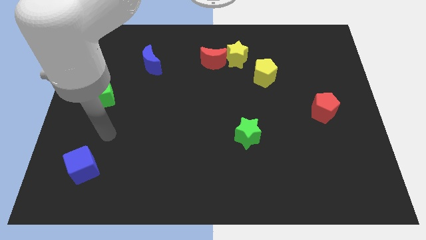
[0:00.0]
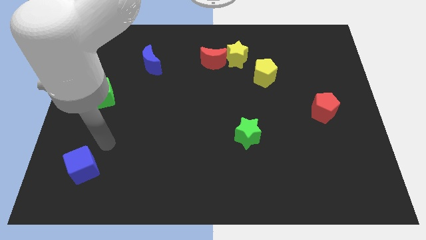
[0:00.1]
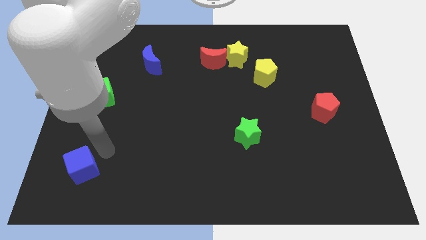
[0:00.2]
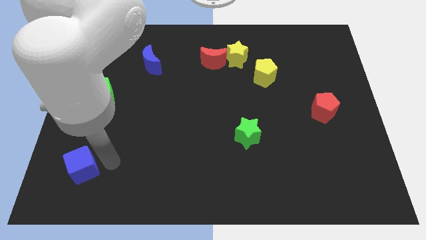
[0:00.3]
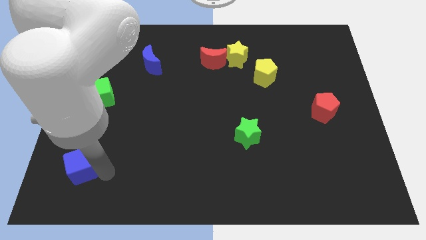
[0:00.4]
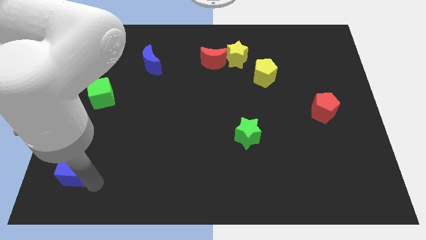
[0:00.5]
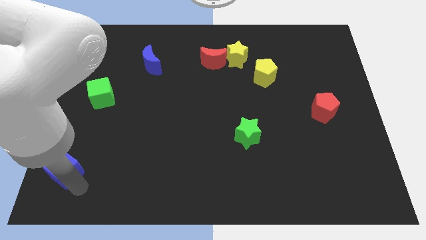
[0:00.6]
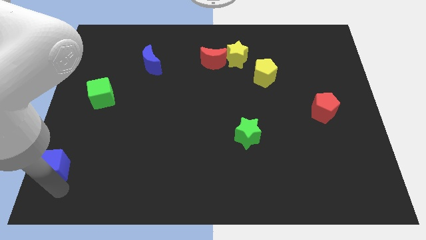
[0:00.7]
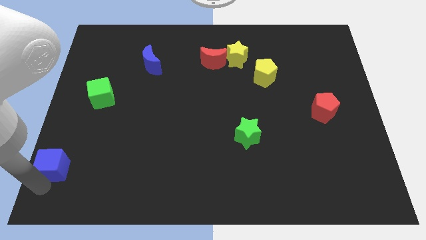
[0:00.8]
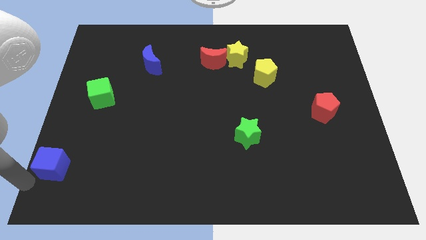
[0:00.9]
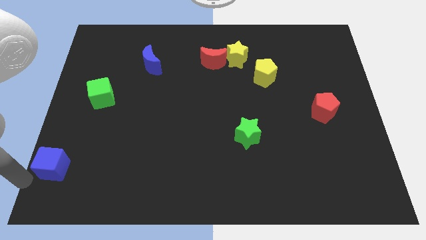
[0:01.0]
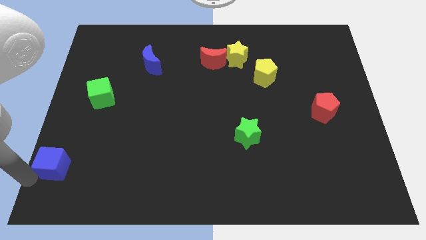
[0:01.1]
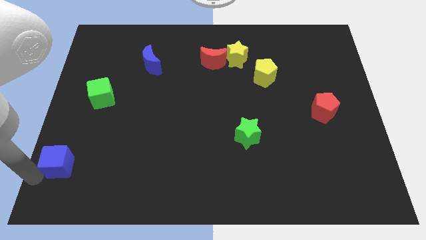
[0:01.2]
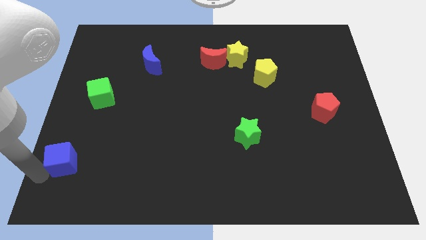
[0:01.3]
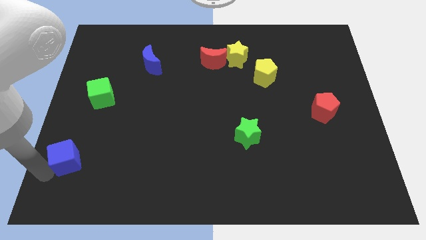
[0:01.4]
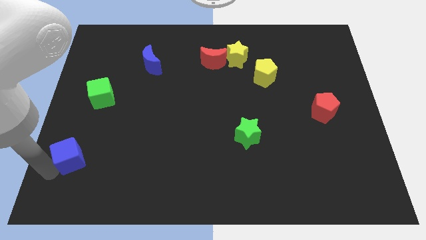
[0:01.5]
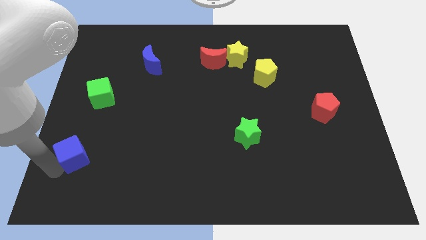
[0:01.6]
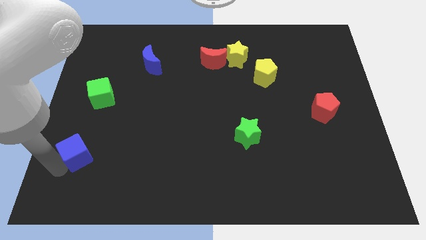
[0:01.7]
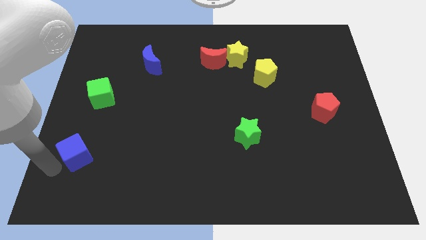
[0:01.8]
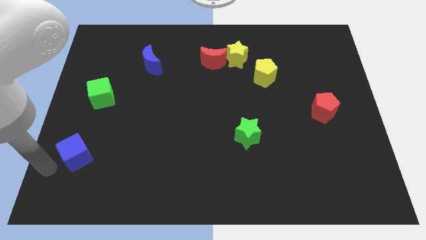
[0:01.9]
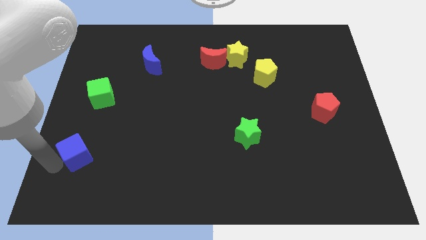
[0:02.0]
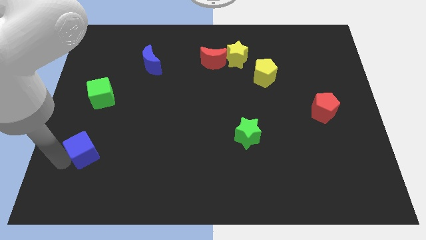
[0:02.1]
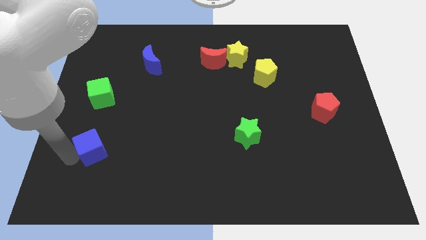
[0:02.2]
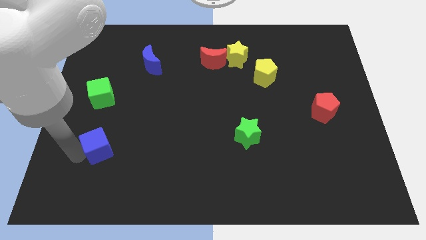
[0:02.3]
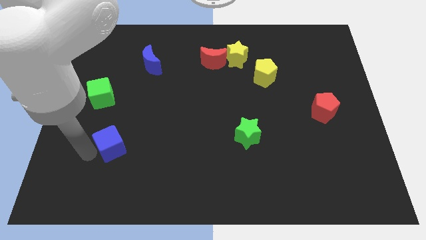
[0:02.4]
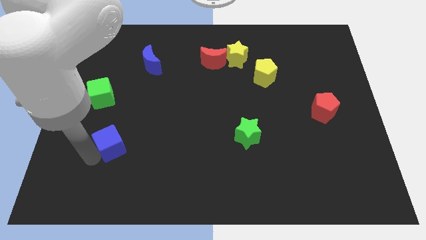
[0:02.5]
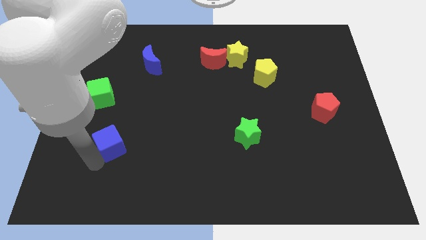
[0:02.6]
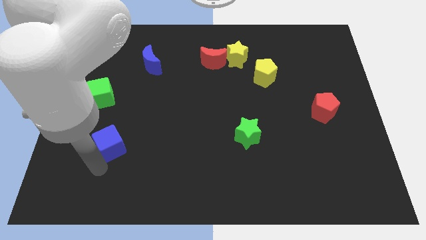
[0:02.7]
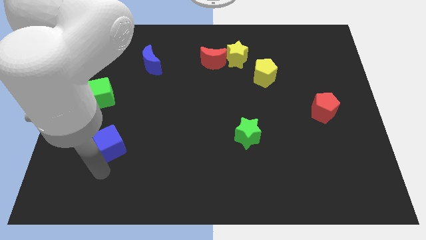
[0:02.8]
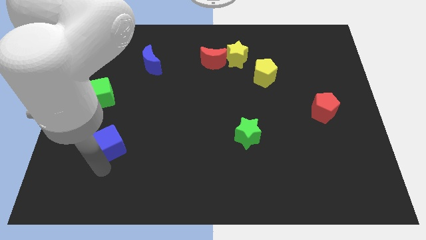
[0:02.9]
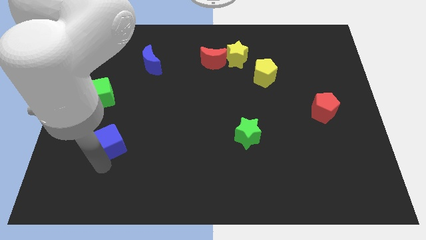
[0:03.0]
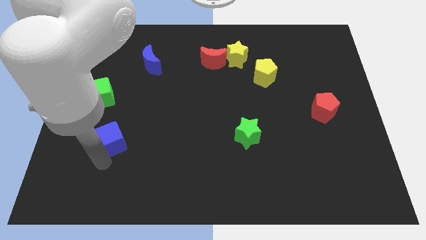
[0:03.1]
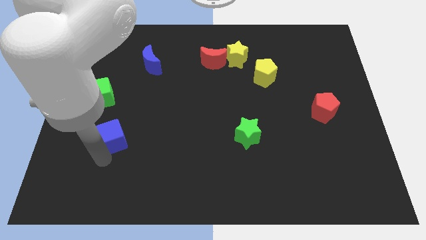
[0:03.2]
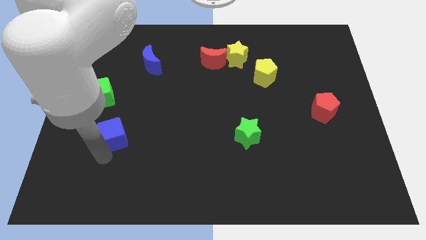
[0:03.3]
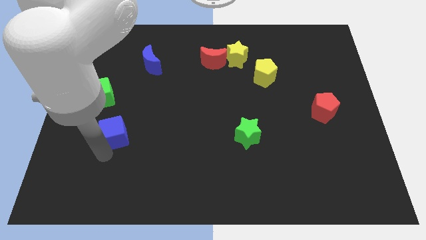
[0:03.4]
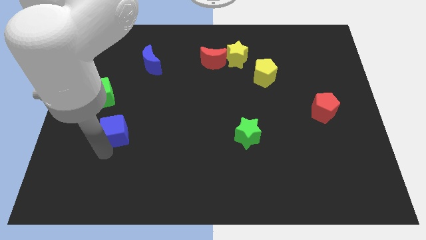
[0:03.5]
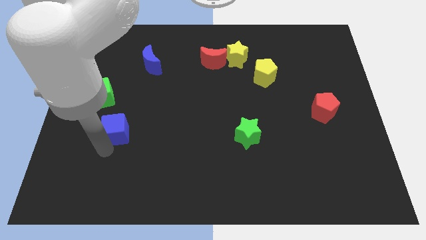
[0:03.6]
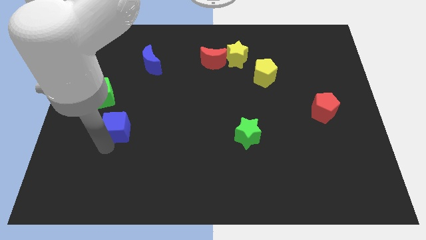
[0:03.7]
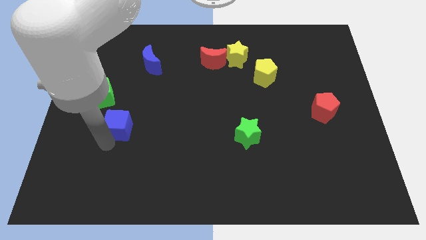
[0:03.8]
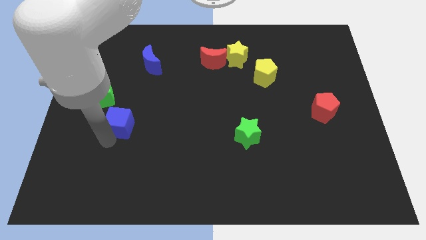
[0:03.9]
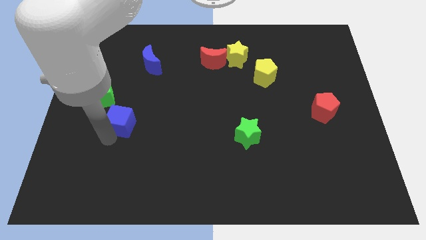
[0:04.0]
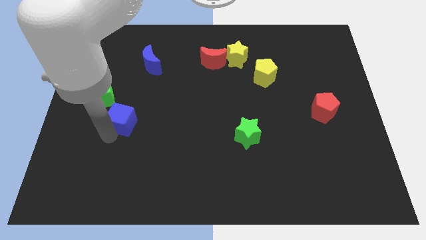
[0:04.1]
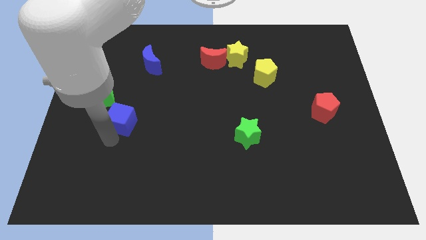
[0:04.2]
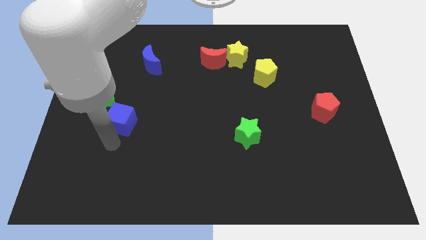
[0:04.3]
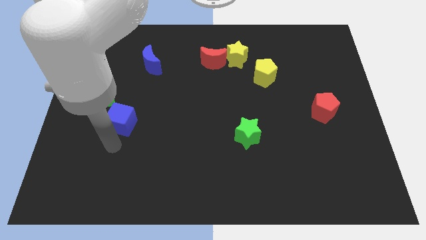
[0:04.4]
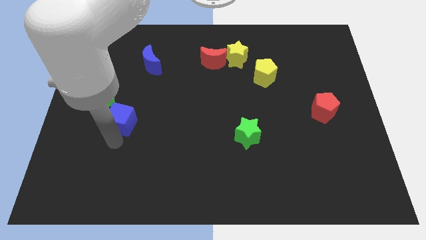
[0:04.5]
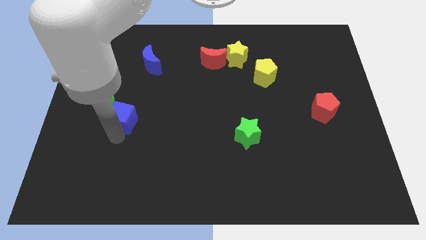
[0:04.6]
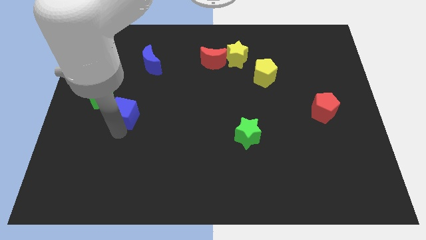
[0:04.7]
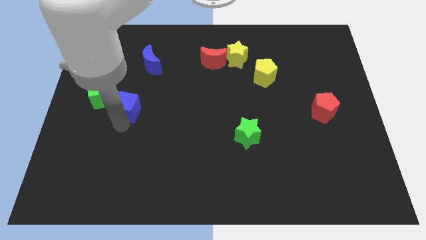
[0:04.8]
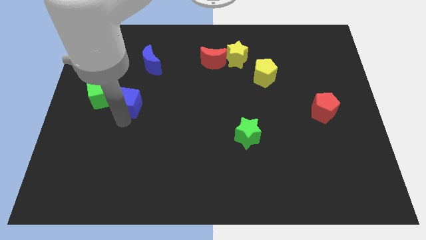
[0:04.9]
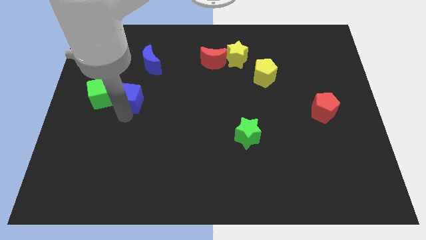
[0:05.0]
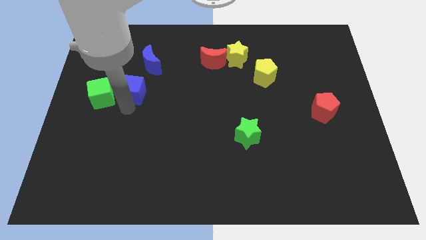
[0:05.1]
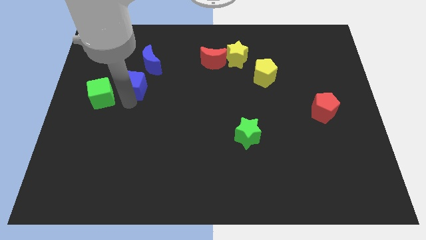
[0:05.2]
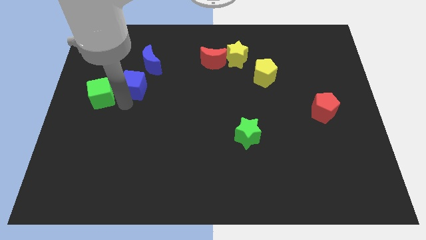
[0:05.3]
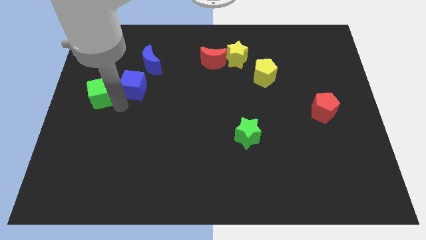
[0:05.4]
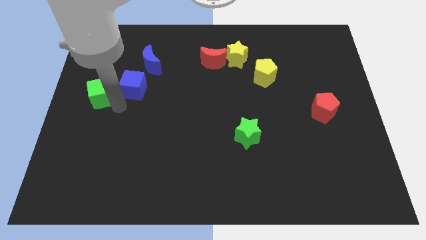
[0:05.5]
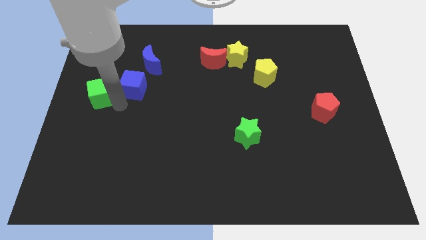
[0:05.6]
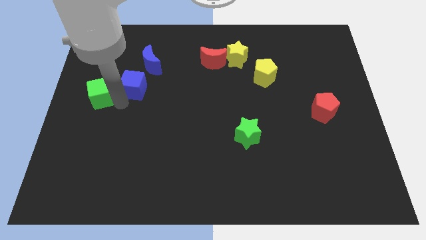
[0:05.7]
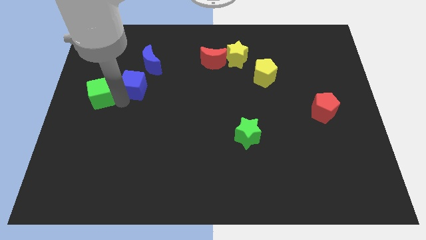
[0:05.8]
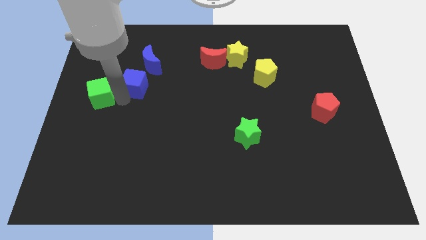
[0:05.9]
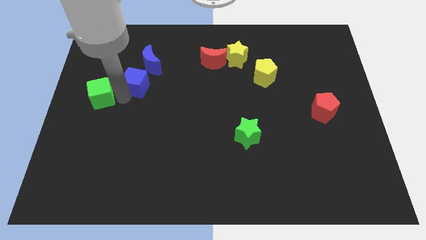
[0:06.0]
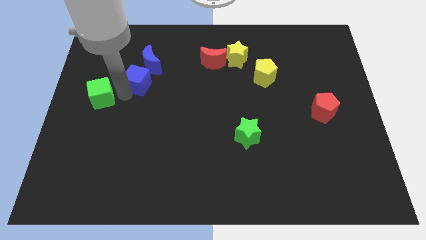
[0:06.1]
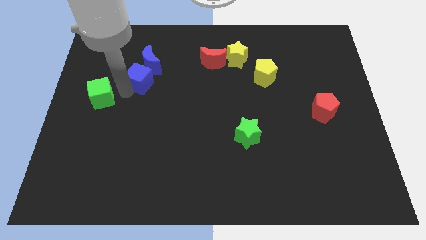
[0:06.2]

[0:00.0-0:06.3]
move the blue cube next to the blue moon

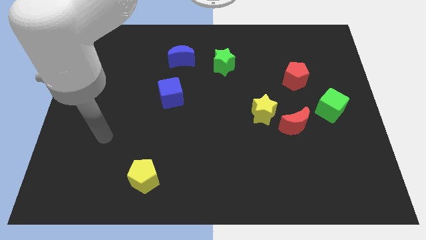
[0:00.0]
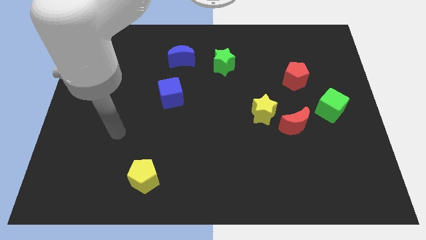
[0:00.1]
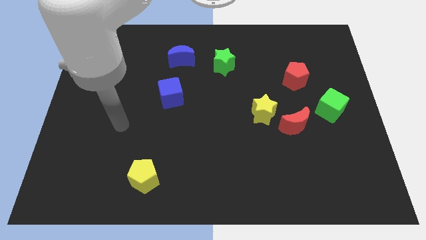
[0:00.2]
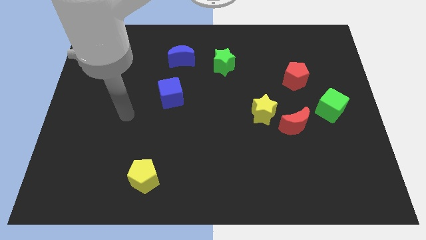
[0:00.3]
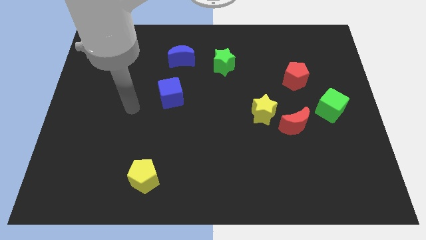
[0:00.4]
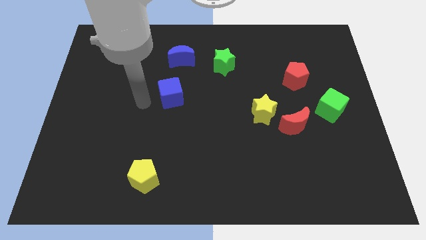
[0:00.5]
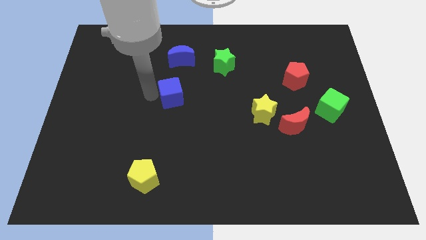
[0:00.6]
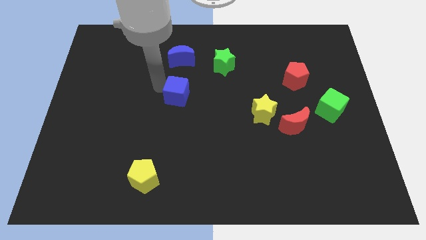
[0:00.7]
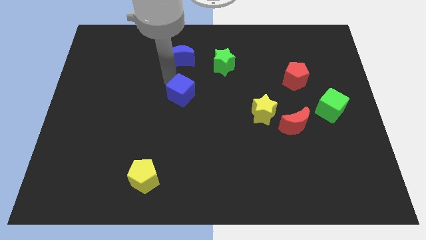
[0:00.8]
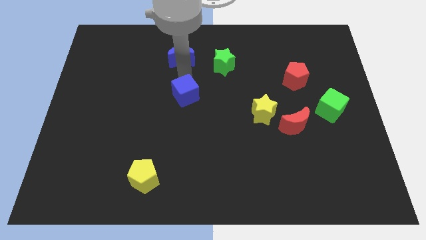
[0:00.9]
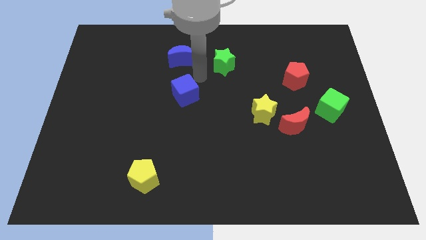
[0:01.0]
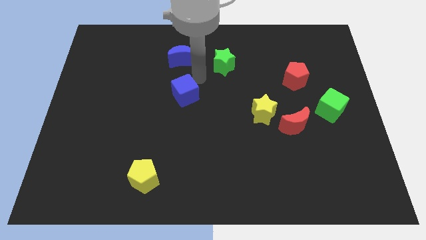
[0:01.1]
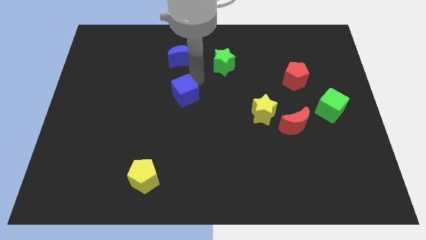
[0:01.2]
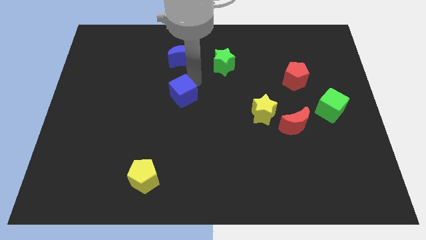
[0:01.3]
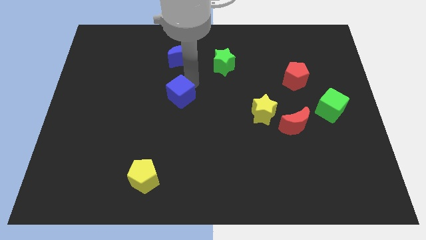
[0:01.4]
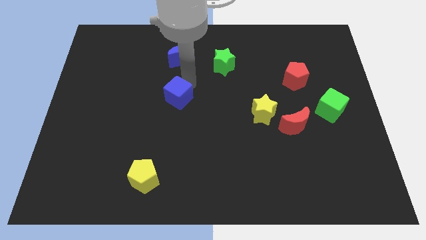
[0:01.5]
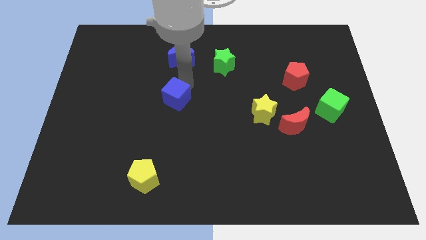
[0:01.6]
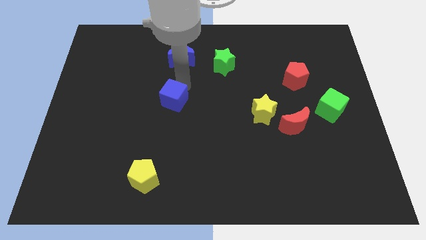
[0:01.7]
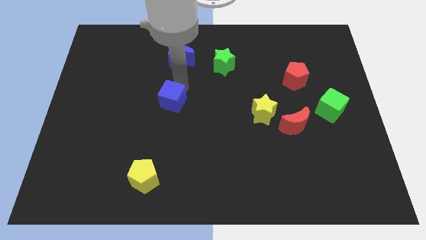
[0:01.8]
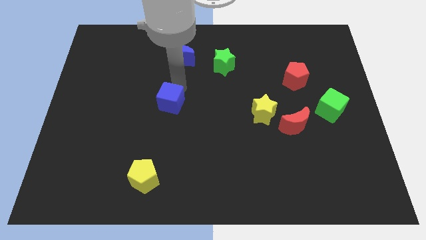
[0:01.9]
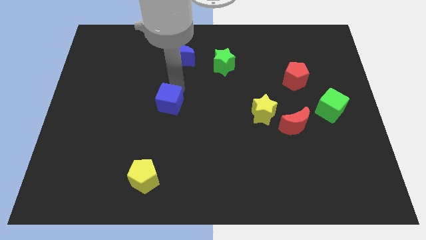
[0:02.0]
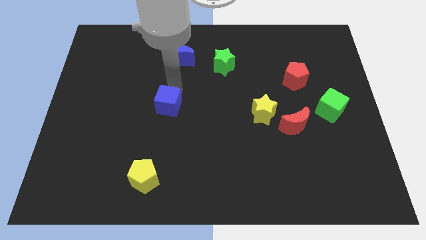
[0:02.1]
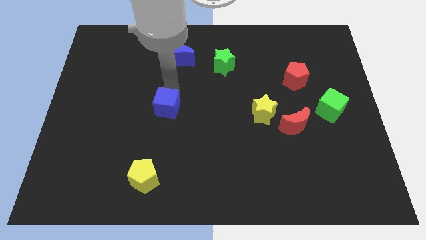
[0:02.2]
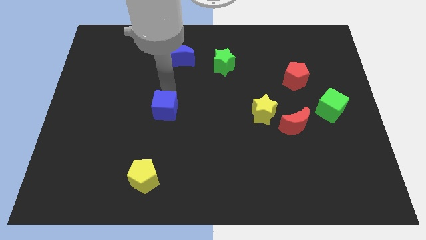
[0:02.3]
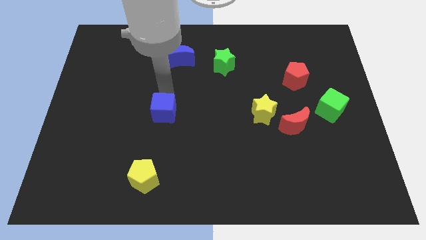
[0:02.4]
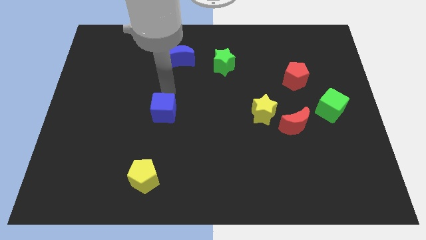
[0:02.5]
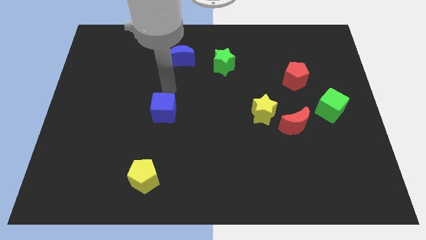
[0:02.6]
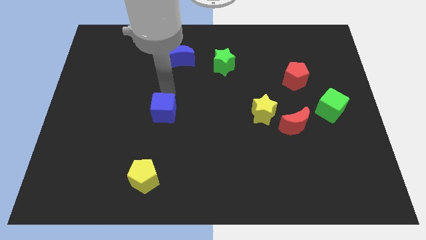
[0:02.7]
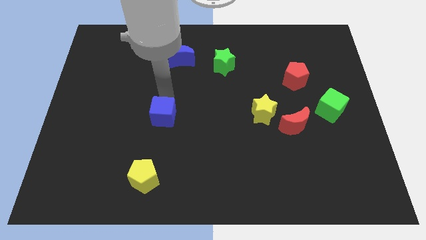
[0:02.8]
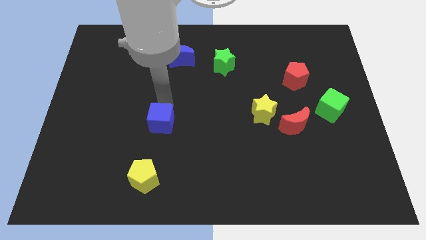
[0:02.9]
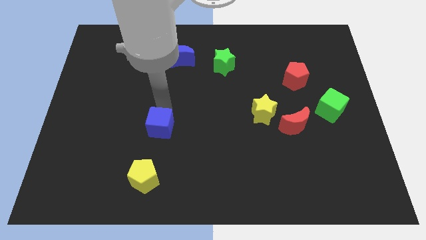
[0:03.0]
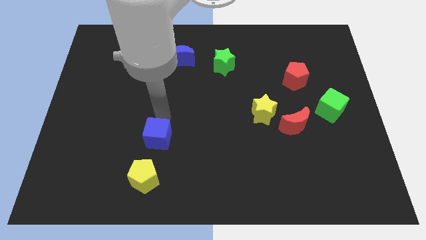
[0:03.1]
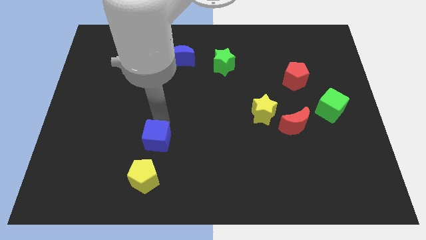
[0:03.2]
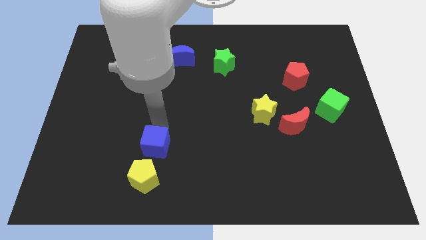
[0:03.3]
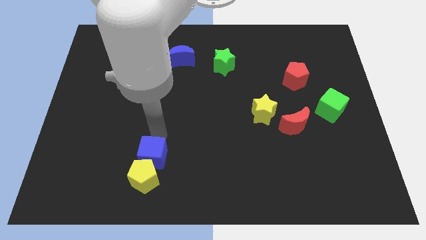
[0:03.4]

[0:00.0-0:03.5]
move the blue cube towards the yellow pentagon
